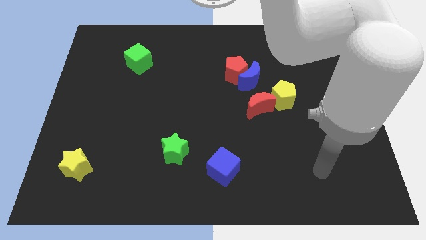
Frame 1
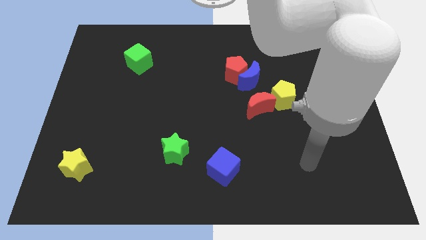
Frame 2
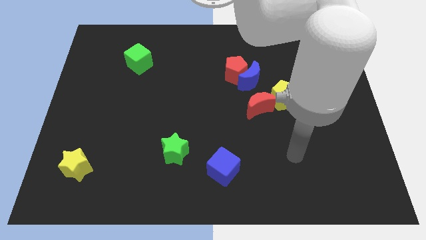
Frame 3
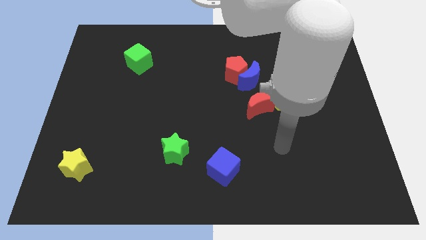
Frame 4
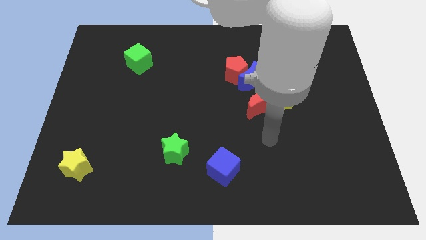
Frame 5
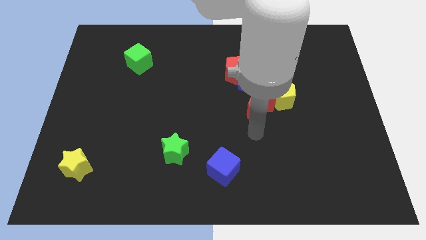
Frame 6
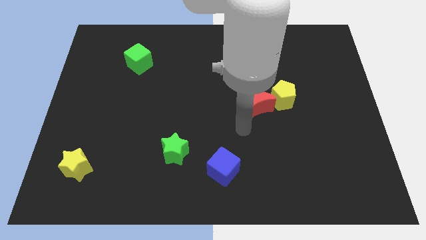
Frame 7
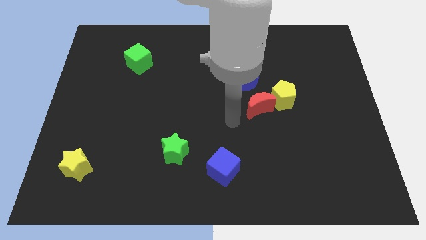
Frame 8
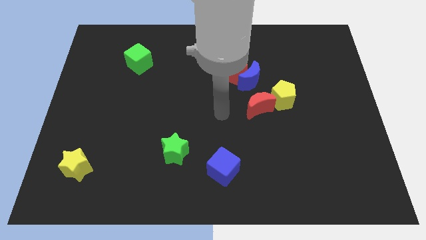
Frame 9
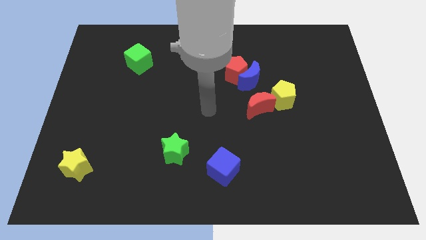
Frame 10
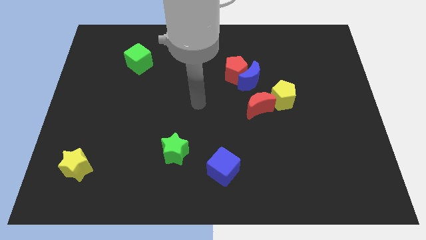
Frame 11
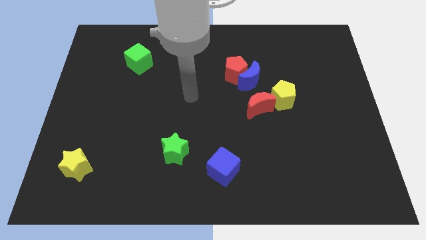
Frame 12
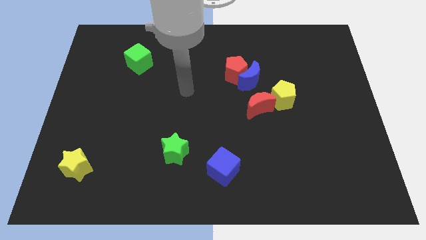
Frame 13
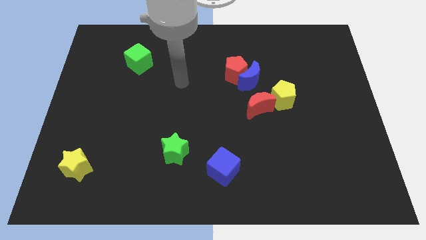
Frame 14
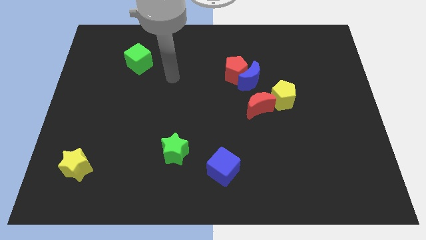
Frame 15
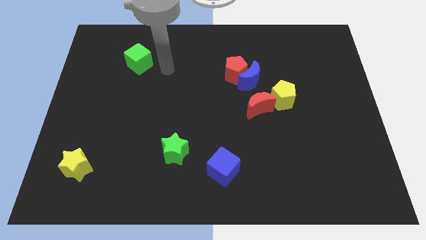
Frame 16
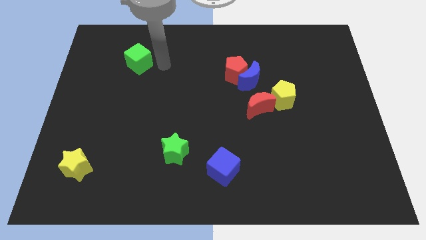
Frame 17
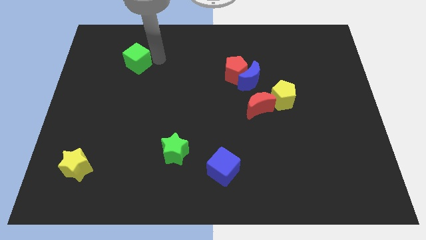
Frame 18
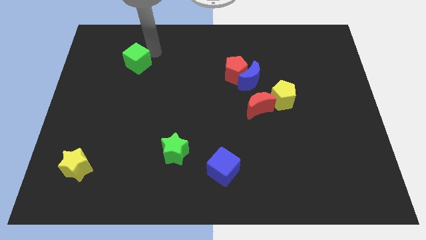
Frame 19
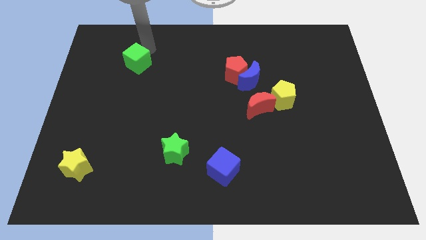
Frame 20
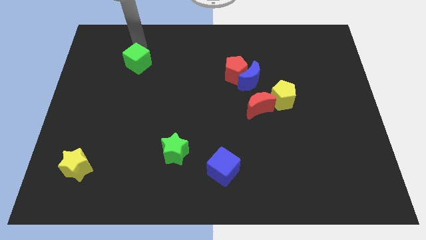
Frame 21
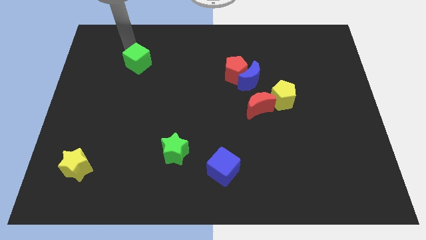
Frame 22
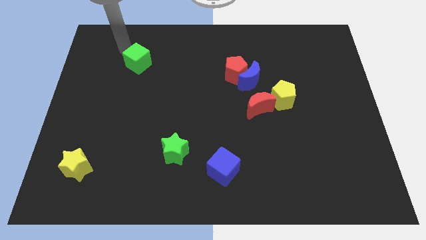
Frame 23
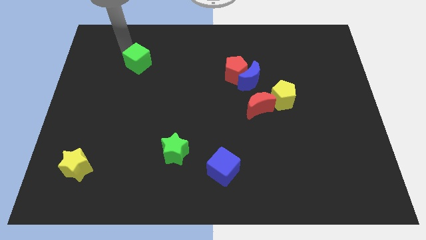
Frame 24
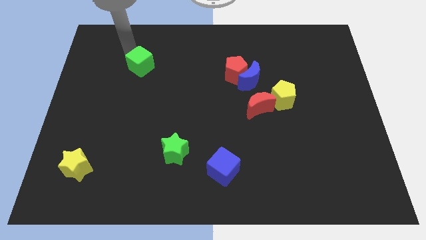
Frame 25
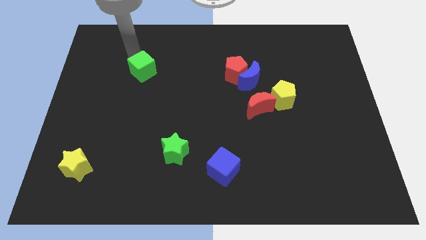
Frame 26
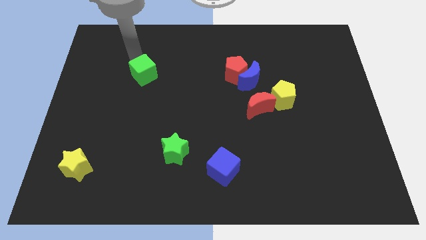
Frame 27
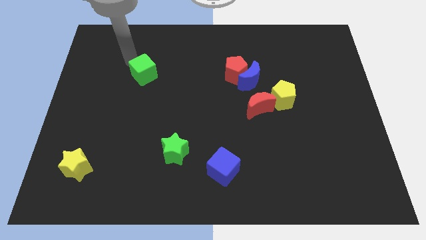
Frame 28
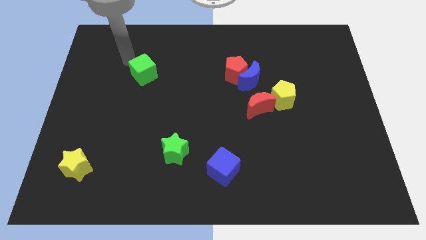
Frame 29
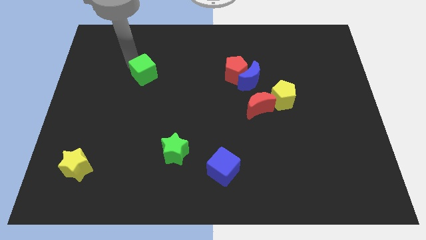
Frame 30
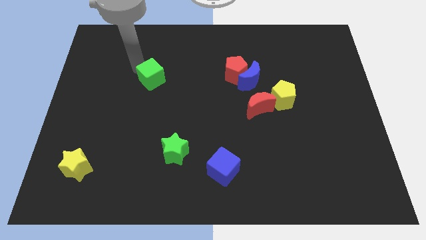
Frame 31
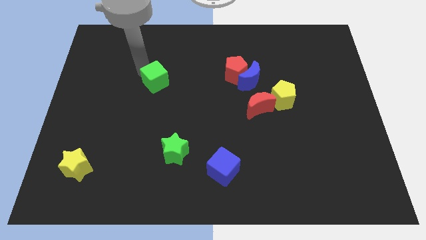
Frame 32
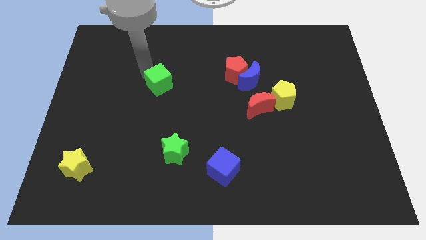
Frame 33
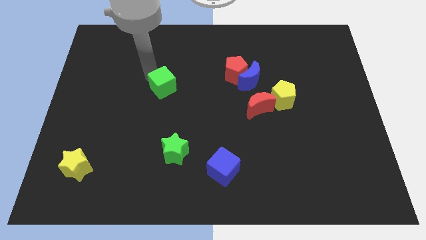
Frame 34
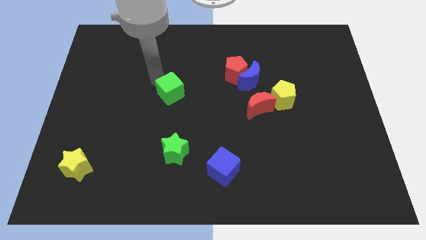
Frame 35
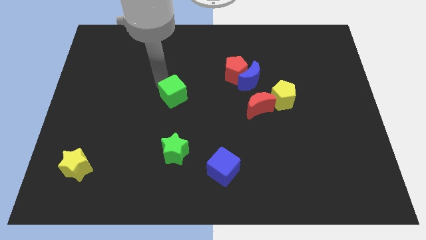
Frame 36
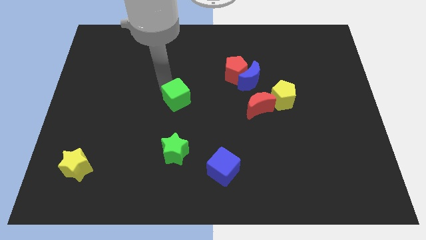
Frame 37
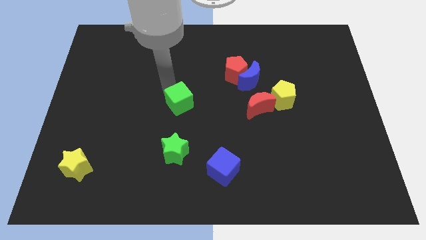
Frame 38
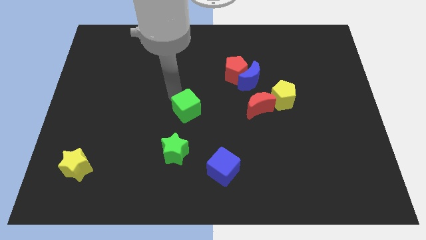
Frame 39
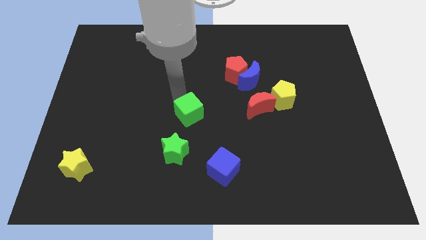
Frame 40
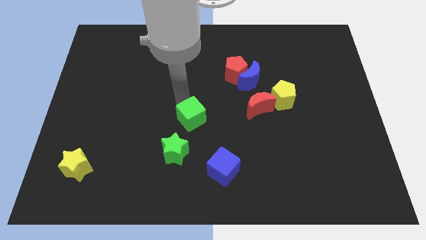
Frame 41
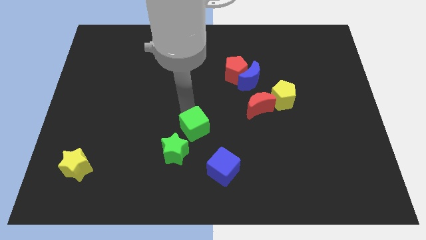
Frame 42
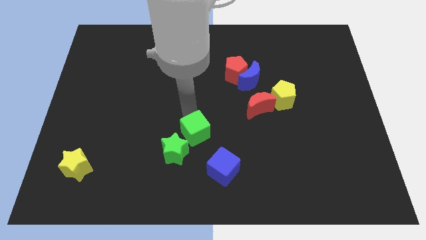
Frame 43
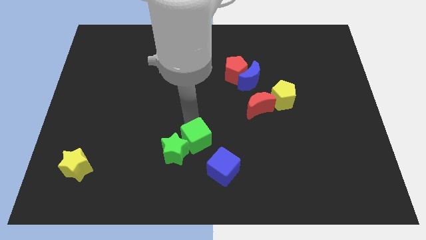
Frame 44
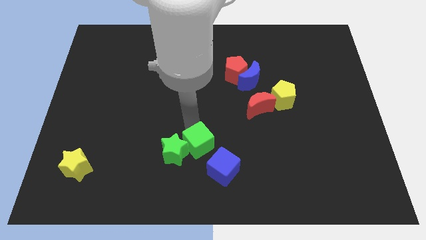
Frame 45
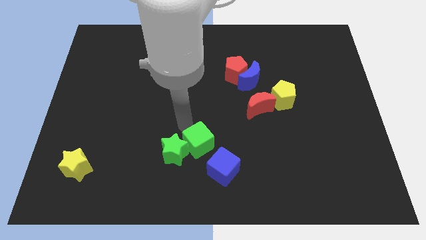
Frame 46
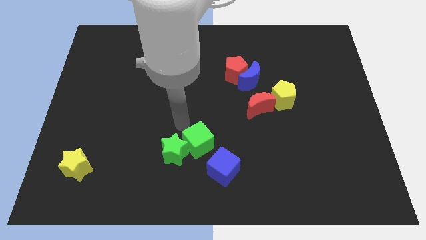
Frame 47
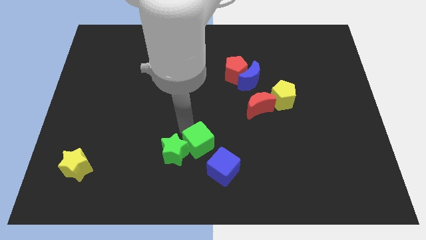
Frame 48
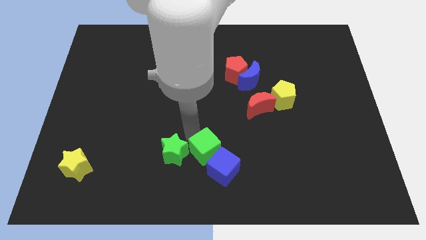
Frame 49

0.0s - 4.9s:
put the green cube next to the blue cube

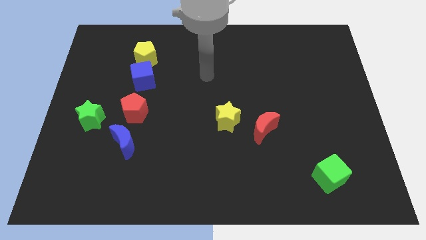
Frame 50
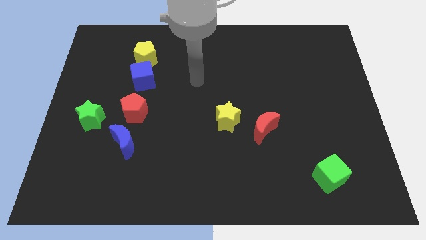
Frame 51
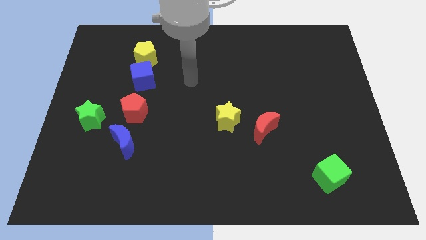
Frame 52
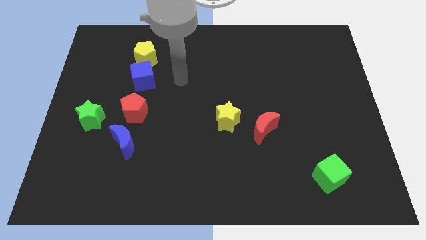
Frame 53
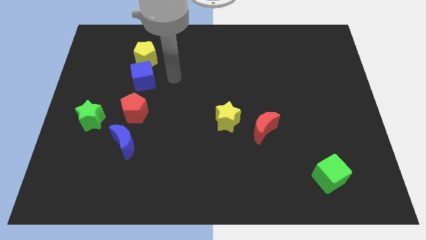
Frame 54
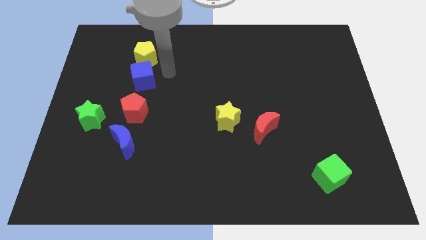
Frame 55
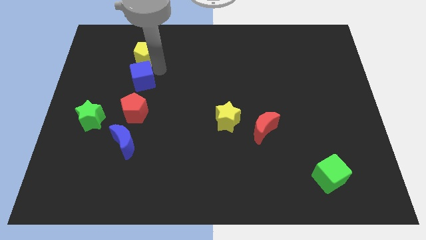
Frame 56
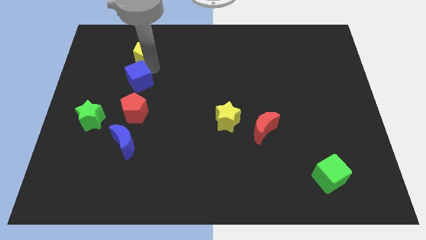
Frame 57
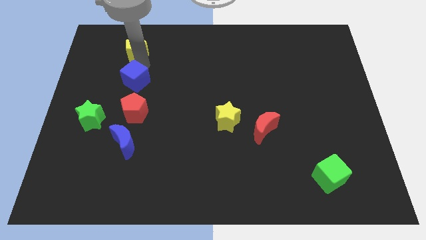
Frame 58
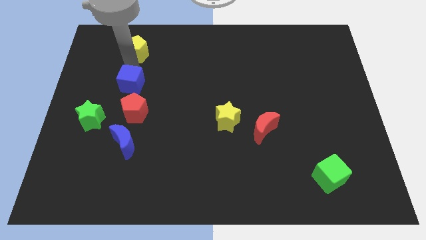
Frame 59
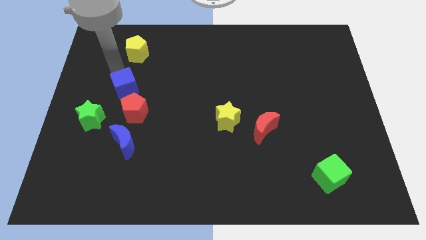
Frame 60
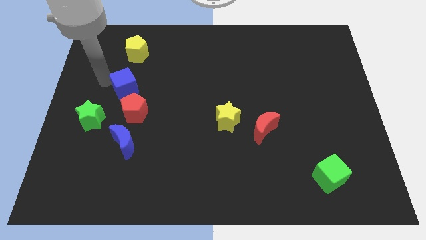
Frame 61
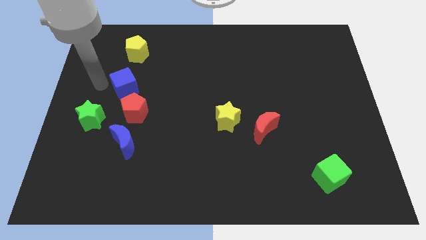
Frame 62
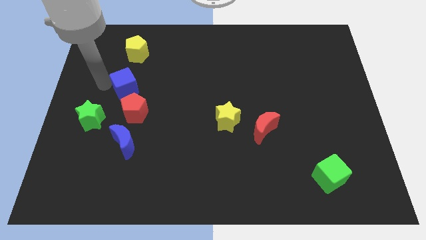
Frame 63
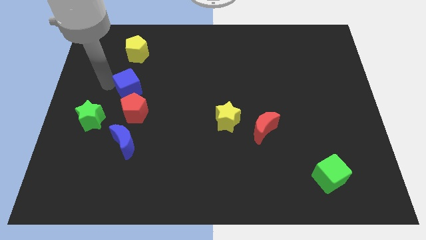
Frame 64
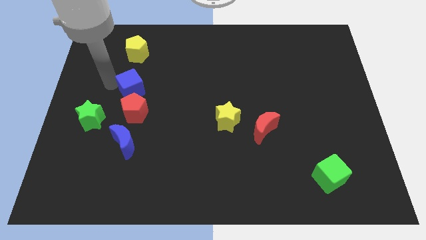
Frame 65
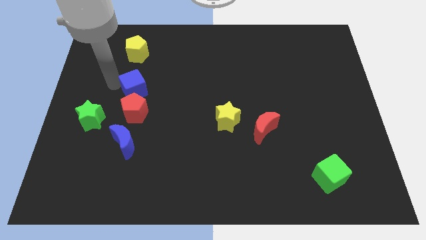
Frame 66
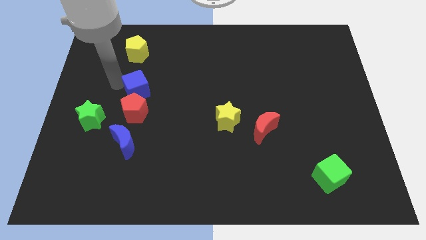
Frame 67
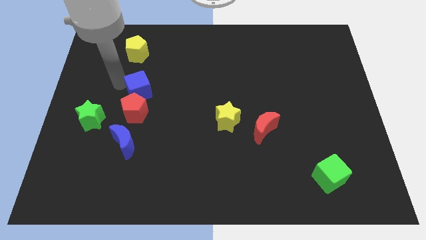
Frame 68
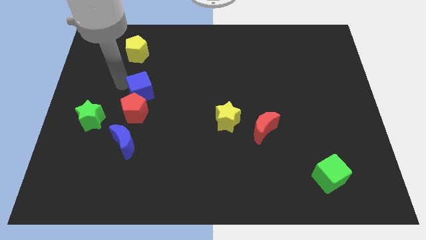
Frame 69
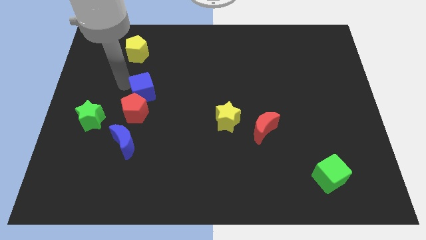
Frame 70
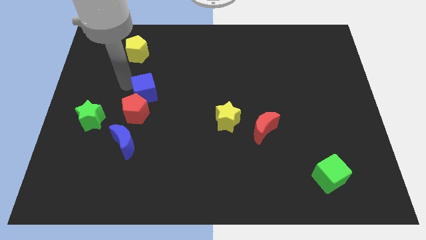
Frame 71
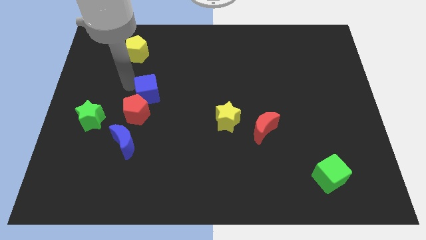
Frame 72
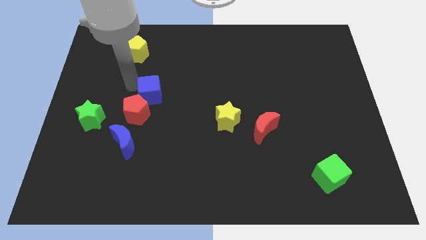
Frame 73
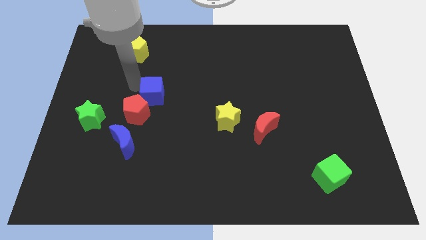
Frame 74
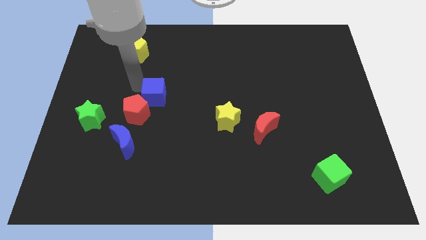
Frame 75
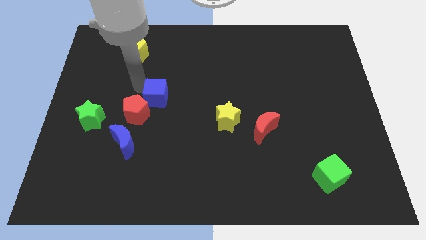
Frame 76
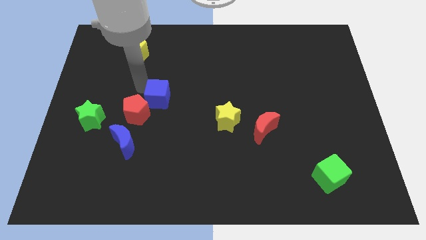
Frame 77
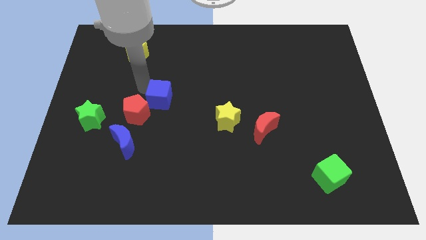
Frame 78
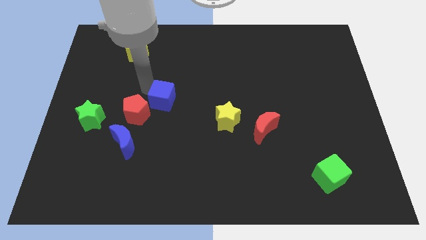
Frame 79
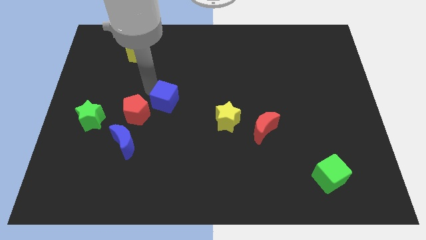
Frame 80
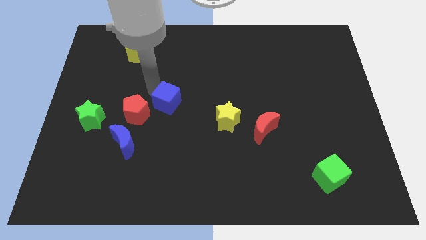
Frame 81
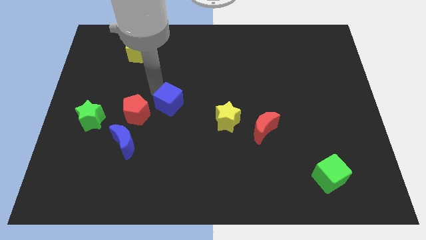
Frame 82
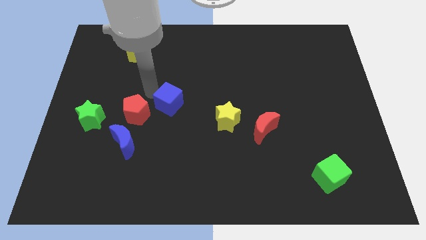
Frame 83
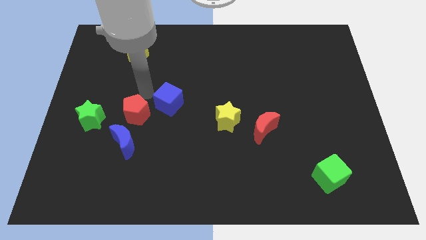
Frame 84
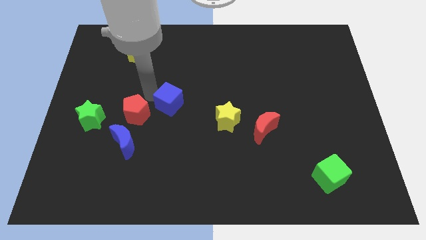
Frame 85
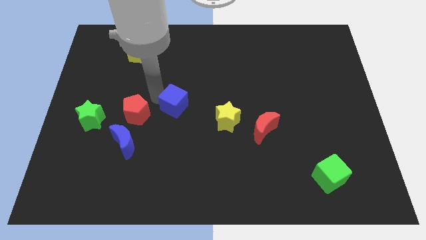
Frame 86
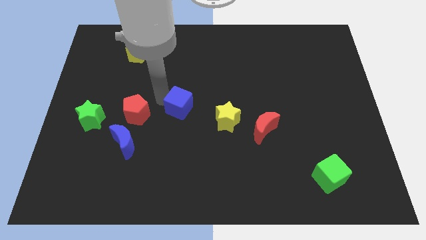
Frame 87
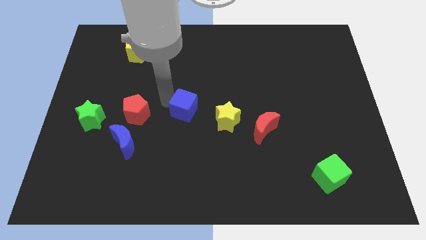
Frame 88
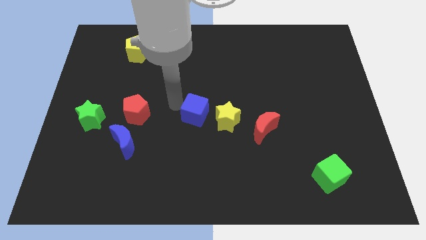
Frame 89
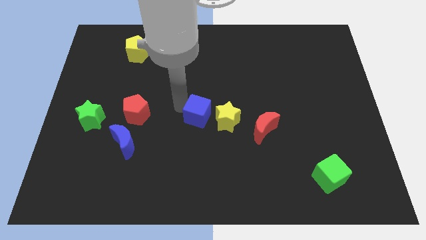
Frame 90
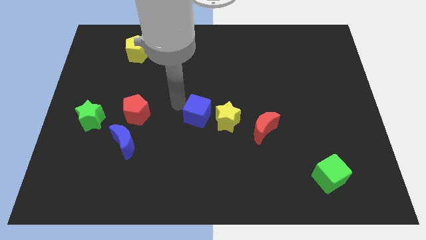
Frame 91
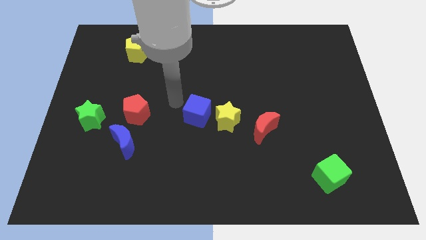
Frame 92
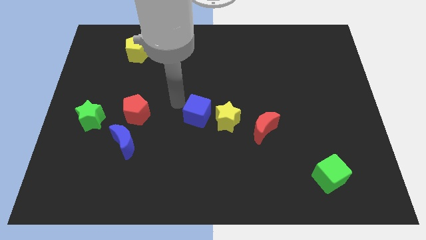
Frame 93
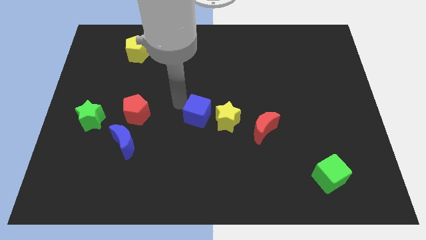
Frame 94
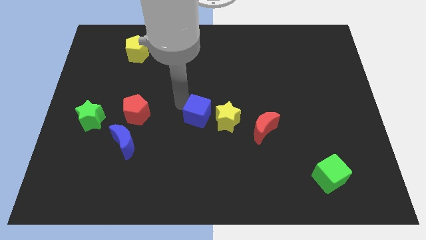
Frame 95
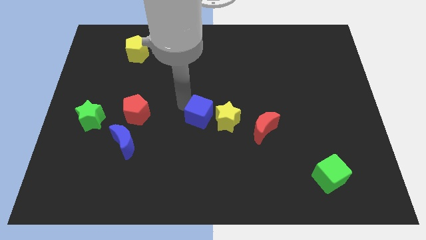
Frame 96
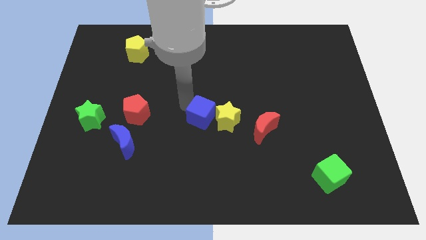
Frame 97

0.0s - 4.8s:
push the blue cube close to the yellow star
